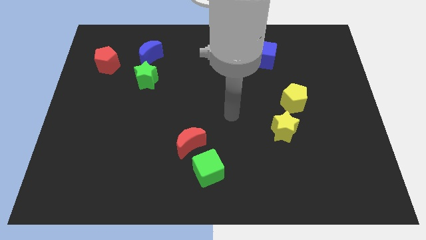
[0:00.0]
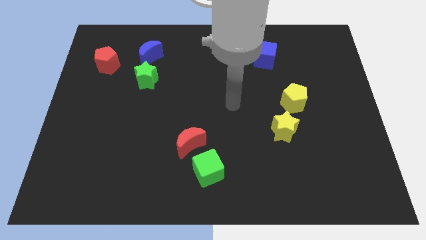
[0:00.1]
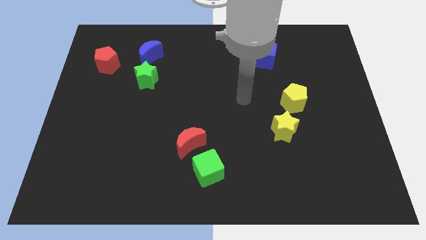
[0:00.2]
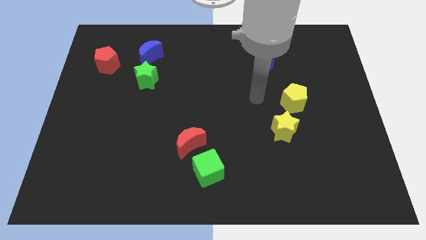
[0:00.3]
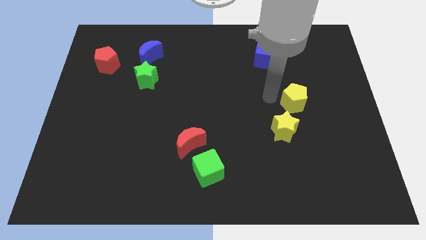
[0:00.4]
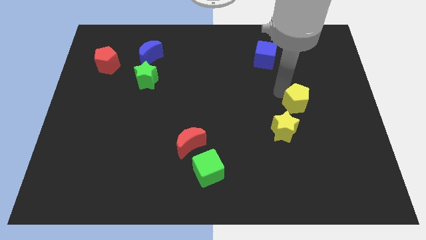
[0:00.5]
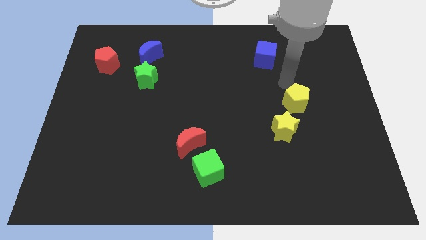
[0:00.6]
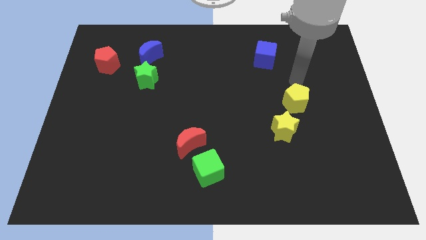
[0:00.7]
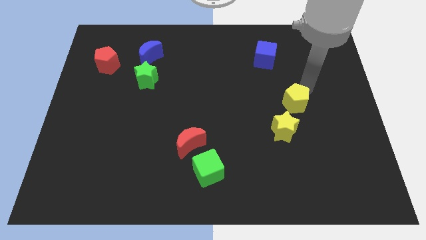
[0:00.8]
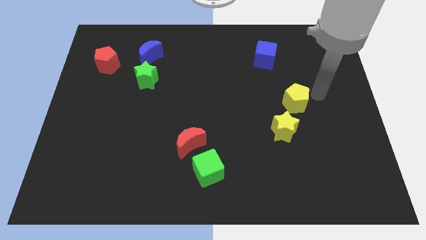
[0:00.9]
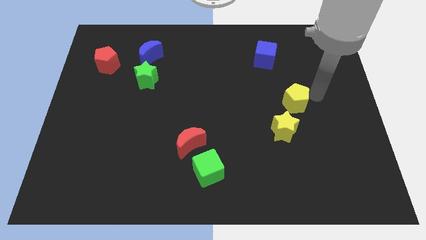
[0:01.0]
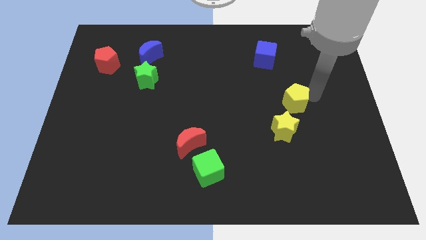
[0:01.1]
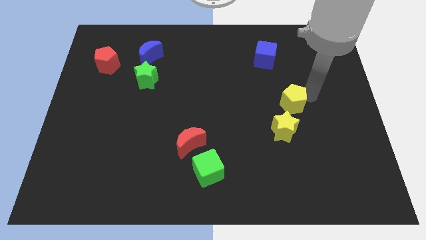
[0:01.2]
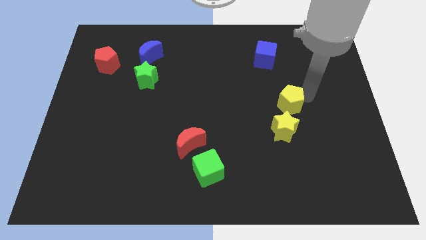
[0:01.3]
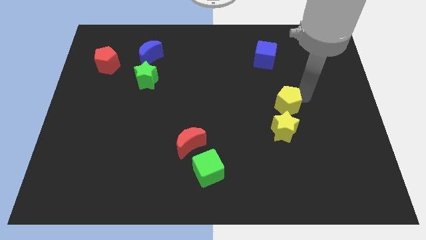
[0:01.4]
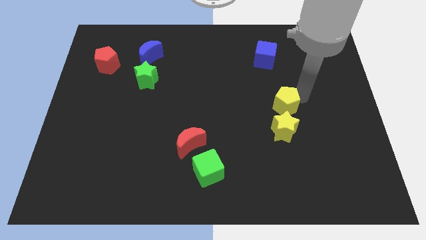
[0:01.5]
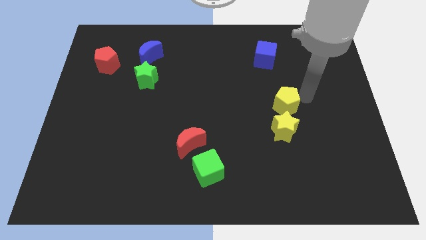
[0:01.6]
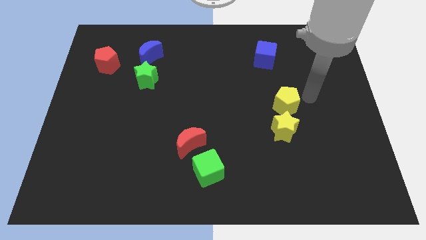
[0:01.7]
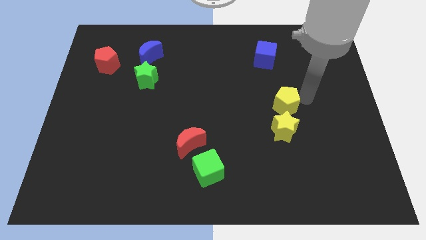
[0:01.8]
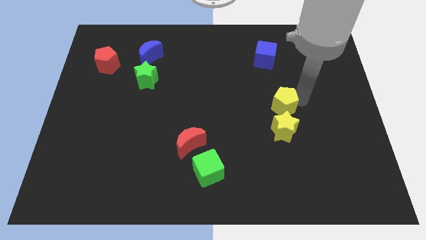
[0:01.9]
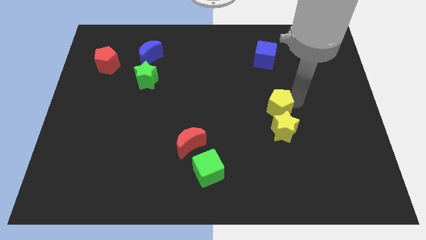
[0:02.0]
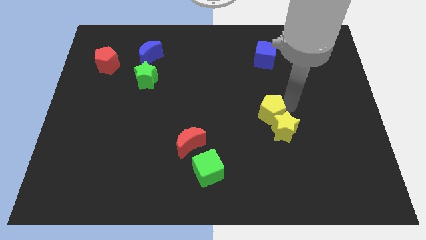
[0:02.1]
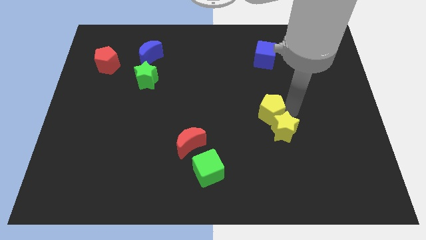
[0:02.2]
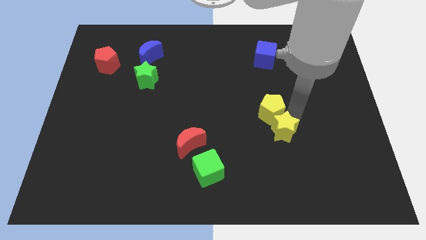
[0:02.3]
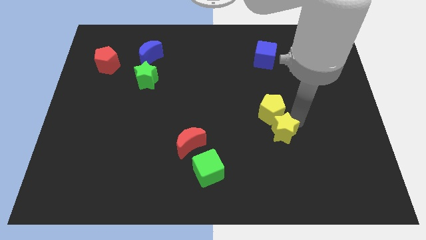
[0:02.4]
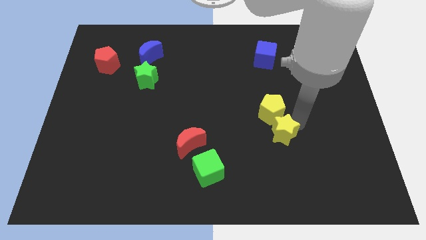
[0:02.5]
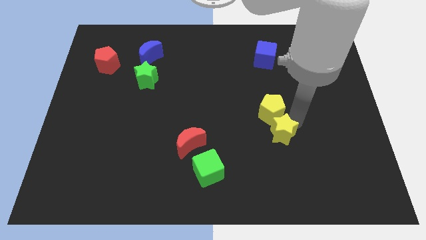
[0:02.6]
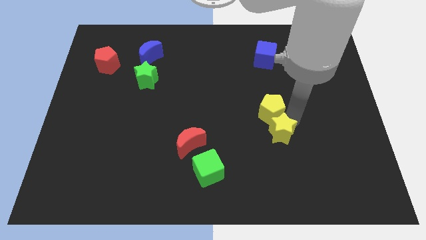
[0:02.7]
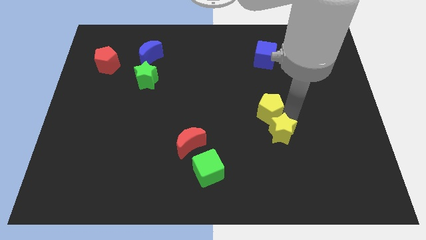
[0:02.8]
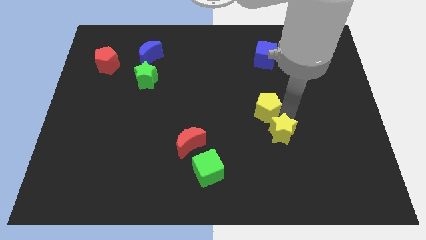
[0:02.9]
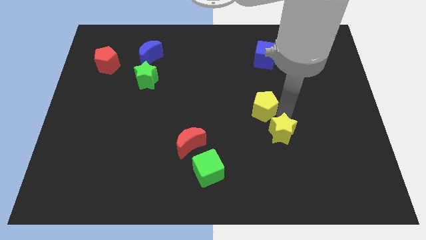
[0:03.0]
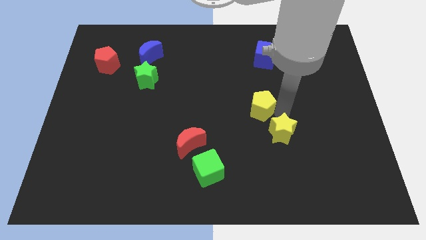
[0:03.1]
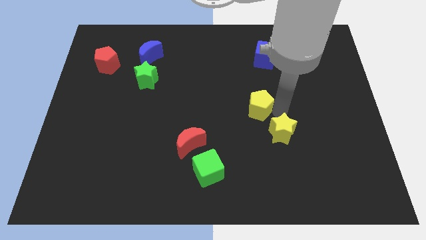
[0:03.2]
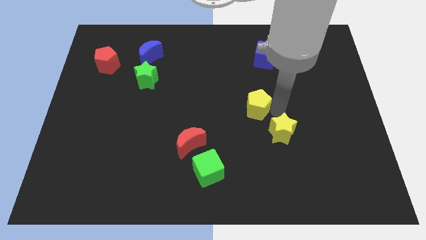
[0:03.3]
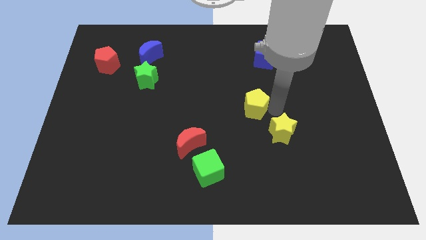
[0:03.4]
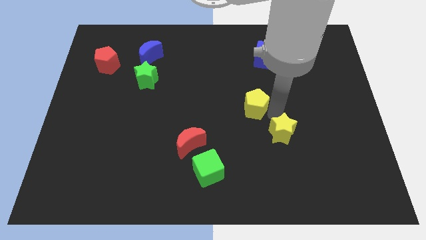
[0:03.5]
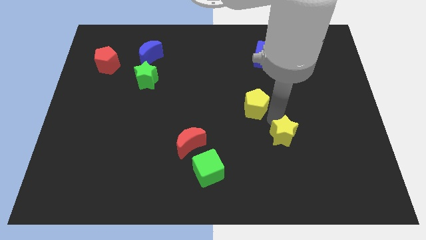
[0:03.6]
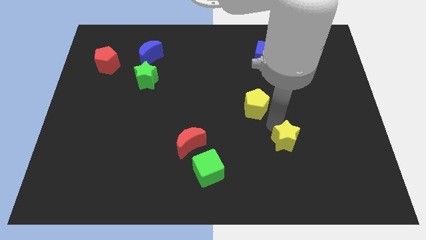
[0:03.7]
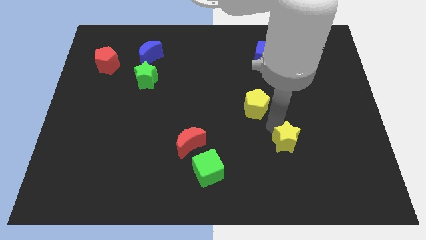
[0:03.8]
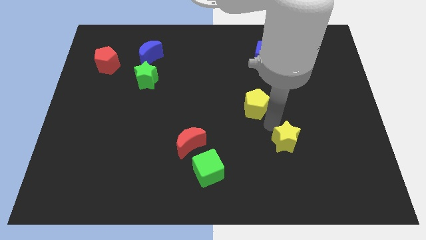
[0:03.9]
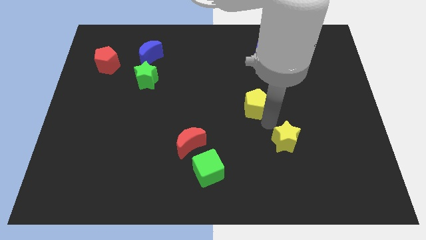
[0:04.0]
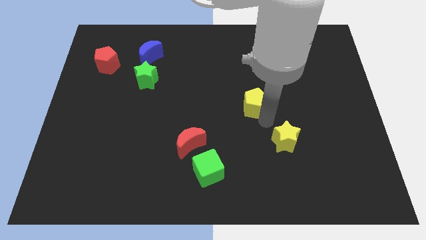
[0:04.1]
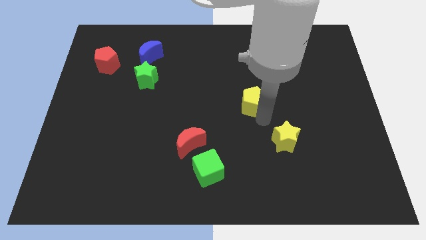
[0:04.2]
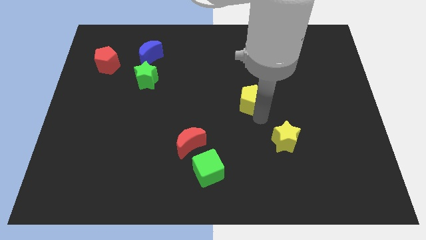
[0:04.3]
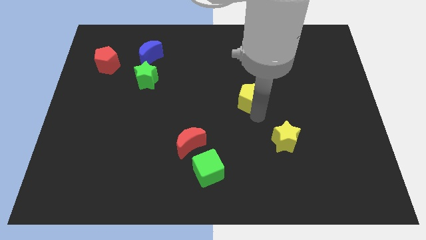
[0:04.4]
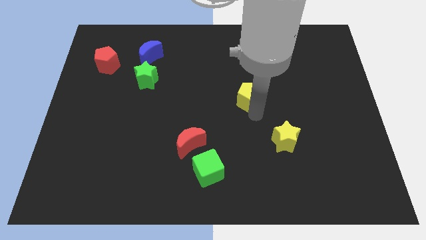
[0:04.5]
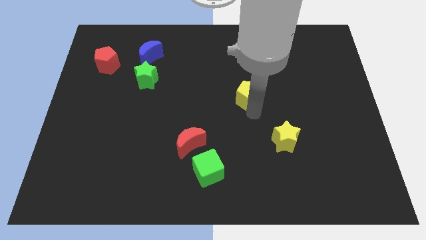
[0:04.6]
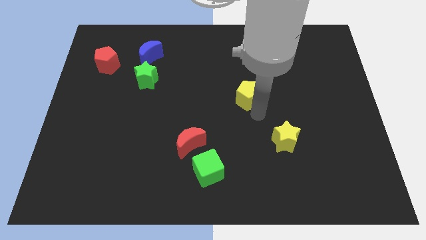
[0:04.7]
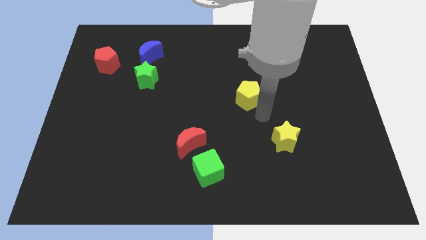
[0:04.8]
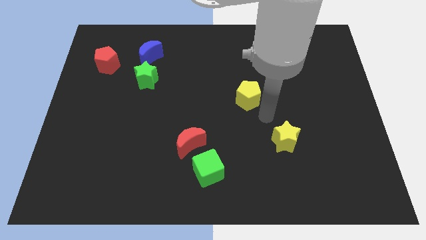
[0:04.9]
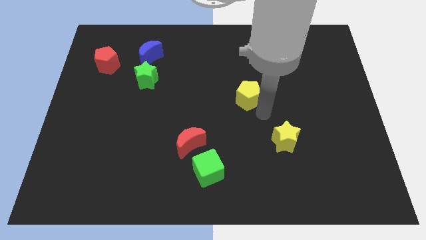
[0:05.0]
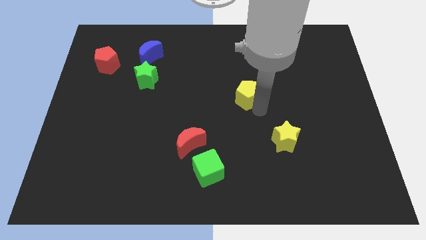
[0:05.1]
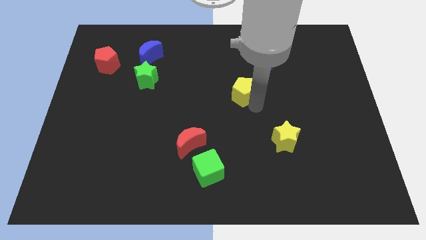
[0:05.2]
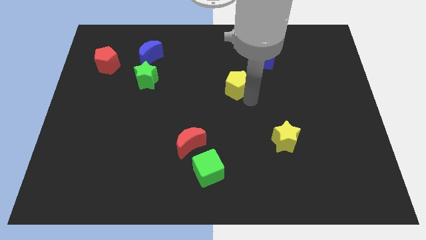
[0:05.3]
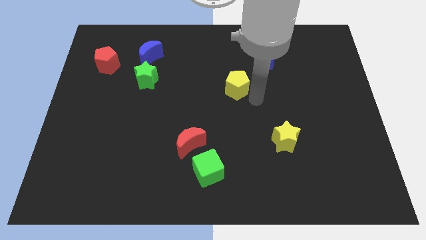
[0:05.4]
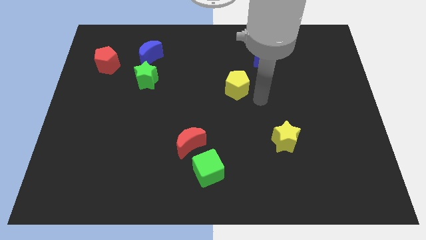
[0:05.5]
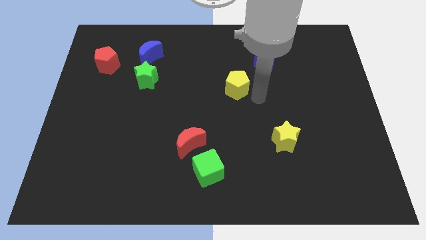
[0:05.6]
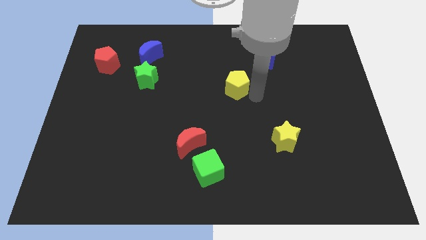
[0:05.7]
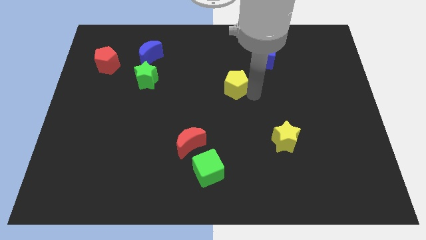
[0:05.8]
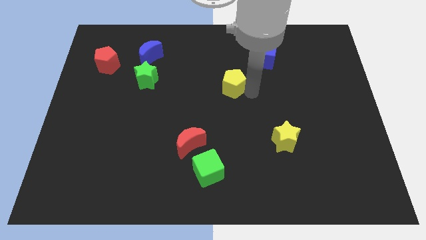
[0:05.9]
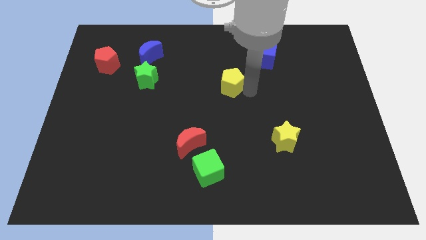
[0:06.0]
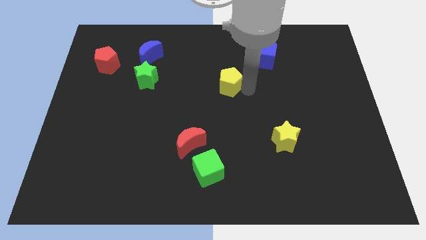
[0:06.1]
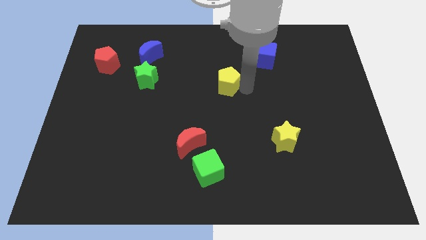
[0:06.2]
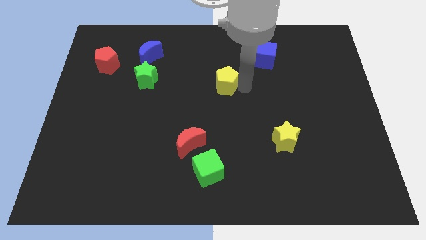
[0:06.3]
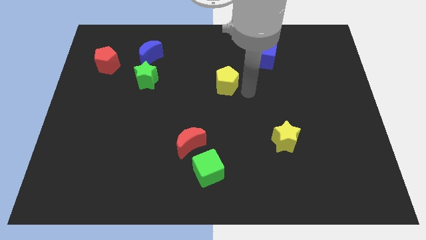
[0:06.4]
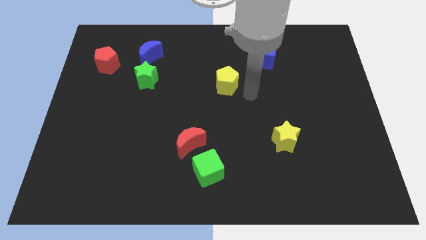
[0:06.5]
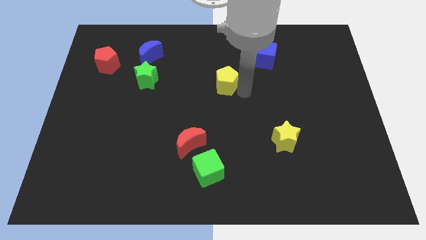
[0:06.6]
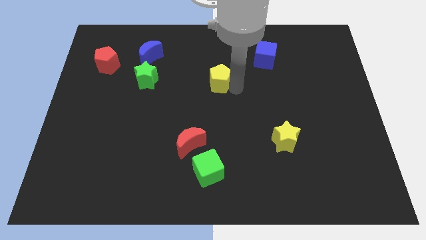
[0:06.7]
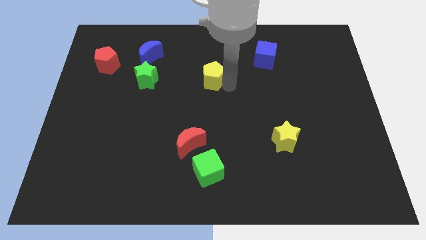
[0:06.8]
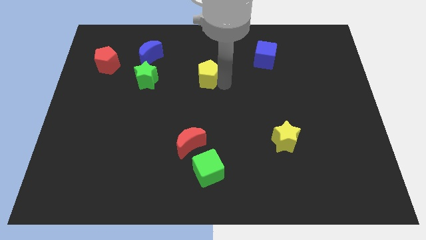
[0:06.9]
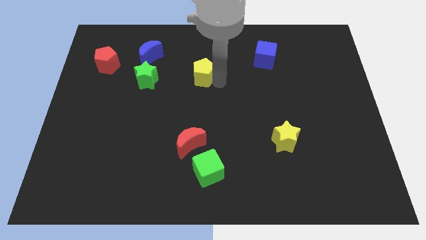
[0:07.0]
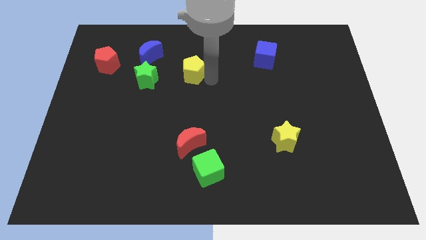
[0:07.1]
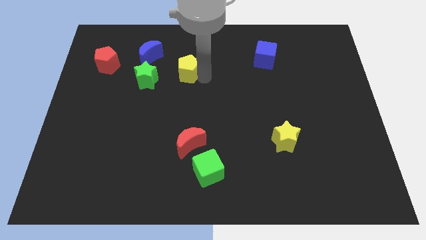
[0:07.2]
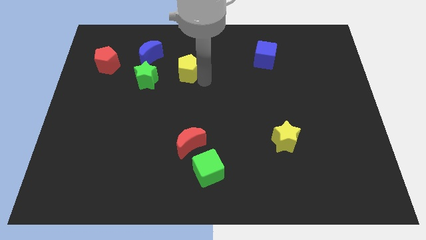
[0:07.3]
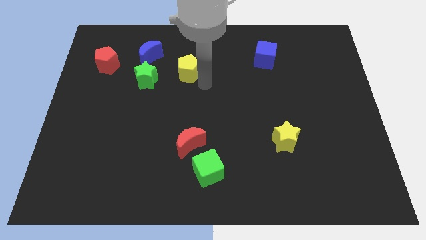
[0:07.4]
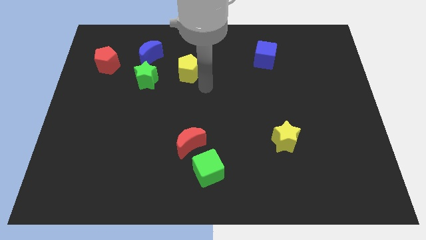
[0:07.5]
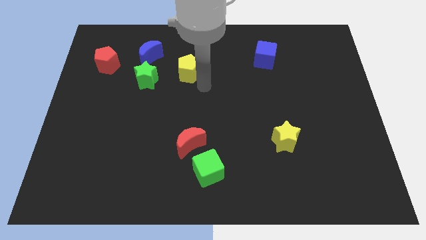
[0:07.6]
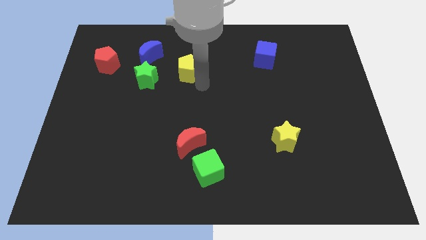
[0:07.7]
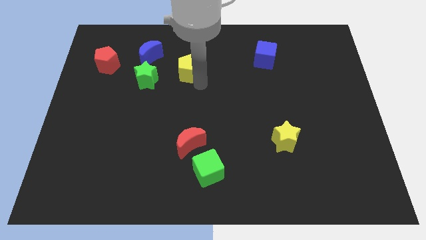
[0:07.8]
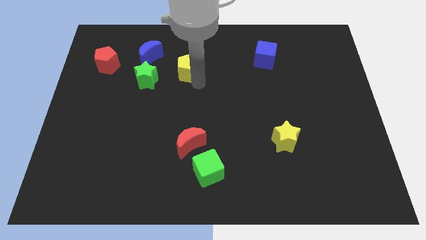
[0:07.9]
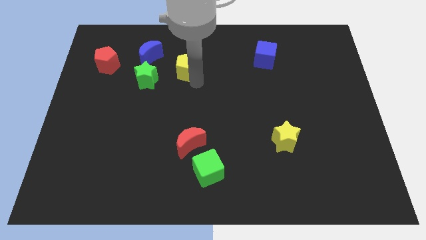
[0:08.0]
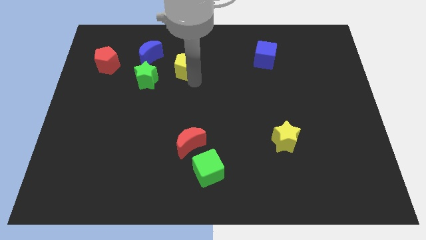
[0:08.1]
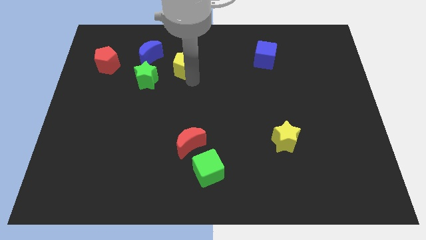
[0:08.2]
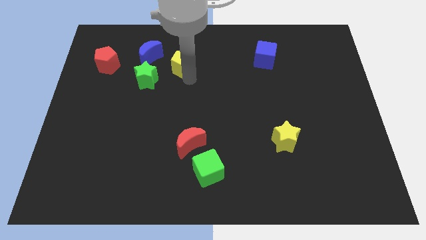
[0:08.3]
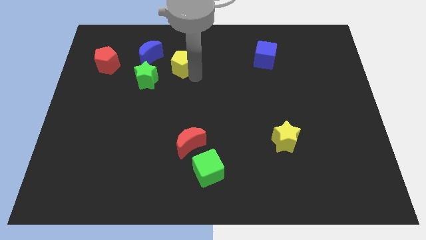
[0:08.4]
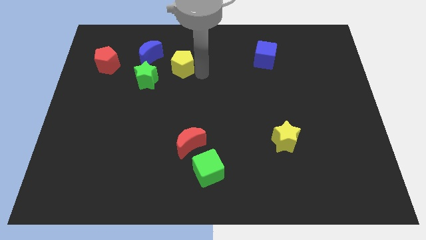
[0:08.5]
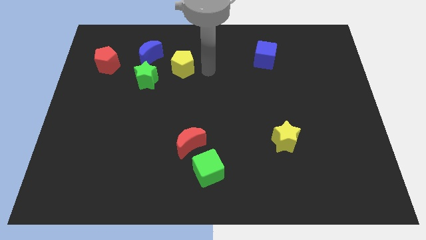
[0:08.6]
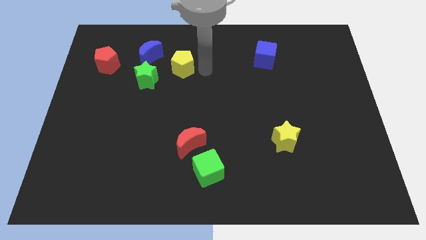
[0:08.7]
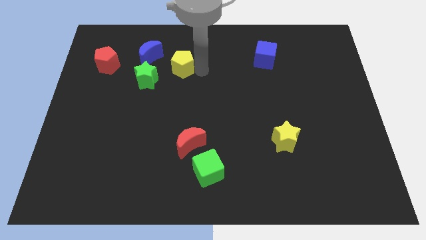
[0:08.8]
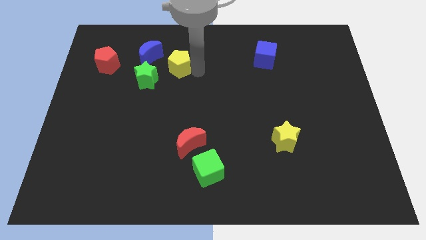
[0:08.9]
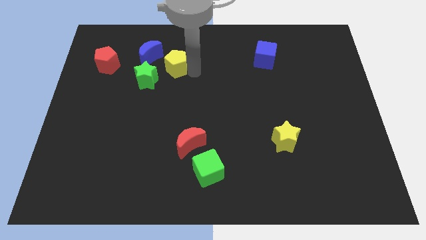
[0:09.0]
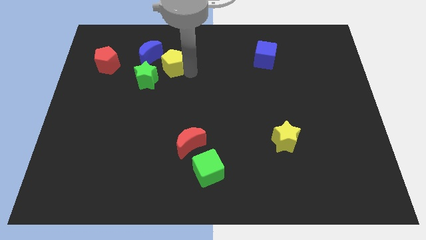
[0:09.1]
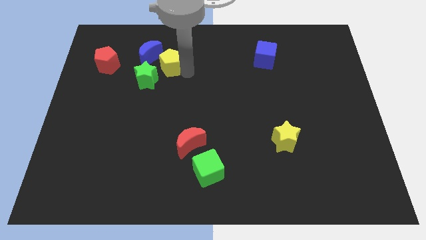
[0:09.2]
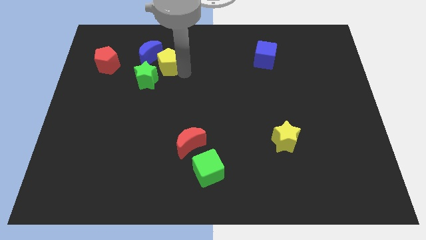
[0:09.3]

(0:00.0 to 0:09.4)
slide the yellow pentagon to the right of the red pentagon
